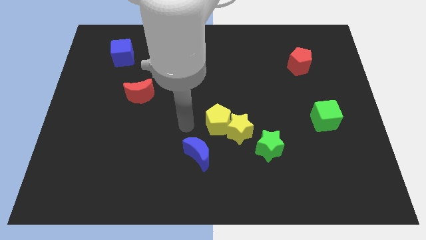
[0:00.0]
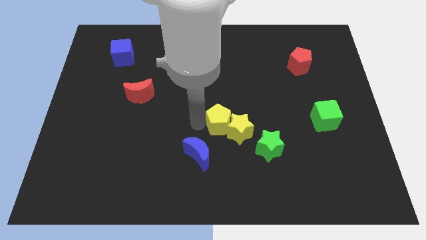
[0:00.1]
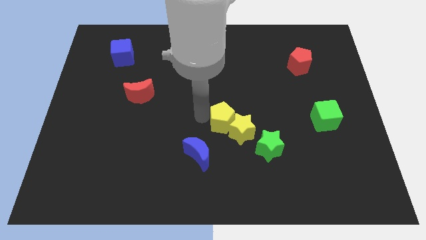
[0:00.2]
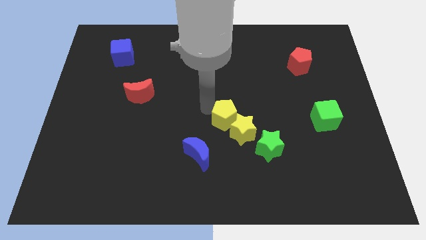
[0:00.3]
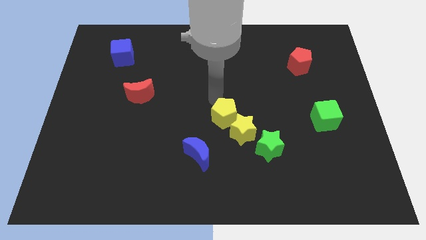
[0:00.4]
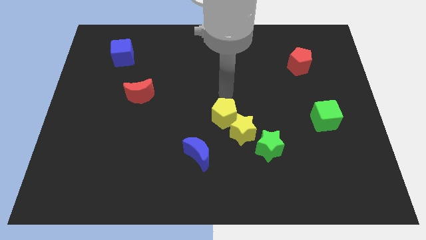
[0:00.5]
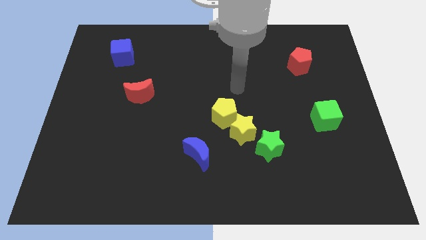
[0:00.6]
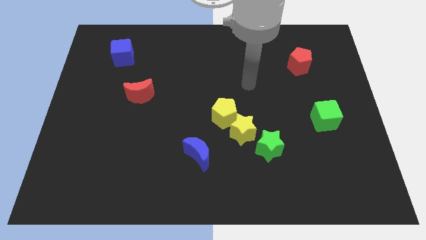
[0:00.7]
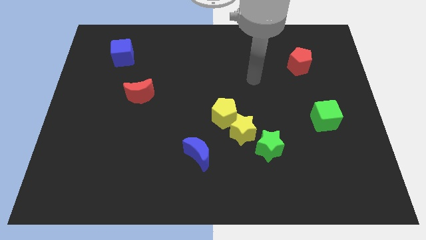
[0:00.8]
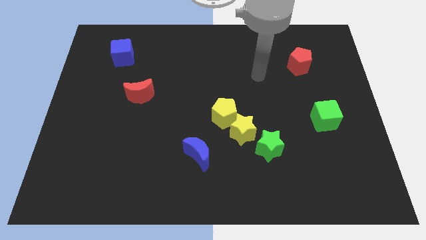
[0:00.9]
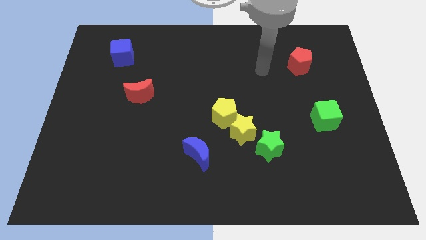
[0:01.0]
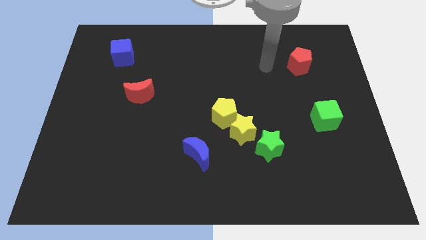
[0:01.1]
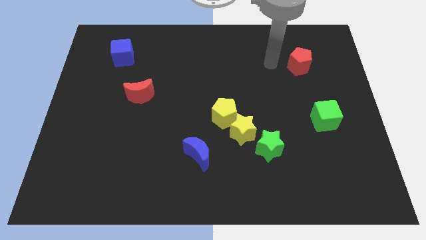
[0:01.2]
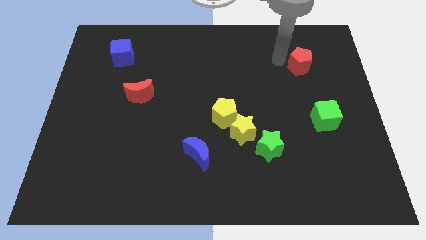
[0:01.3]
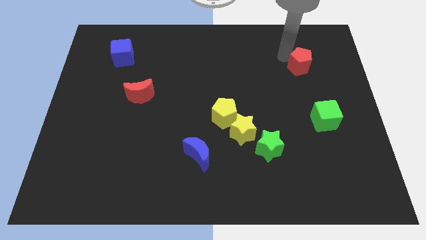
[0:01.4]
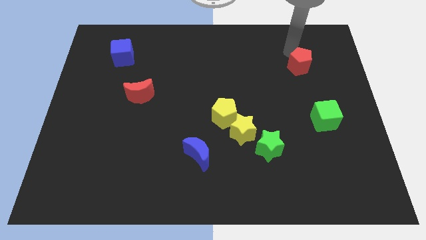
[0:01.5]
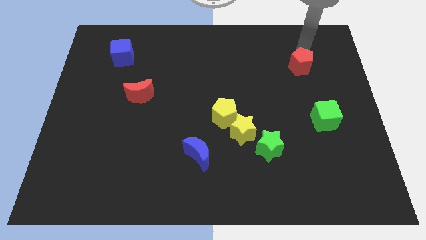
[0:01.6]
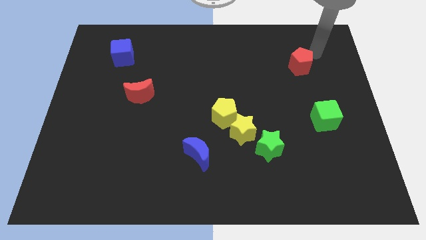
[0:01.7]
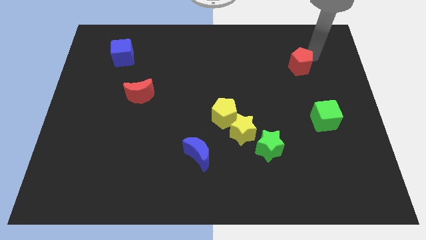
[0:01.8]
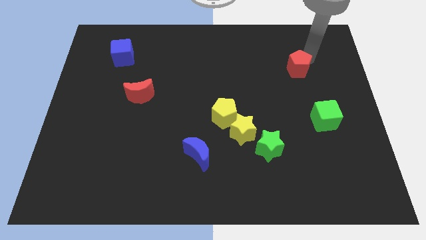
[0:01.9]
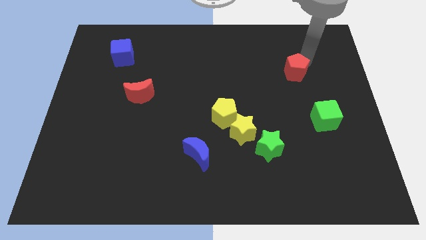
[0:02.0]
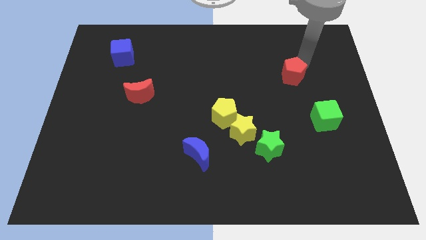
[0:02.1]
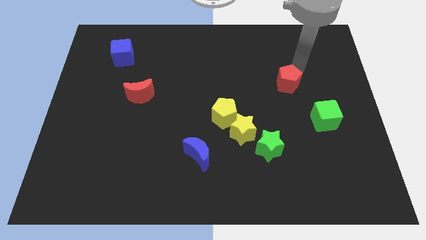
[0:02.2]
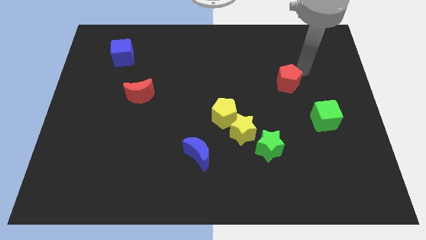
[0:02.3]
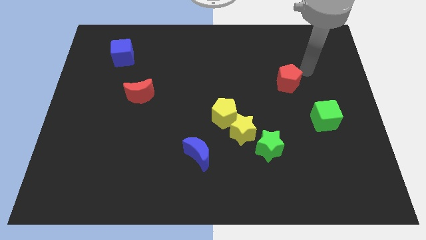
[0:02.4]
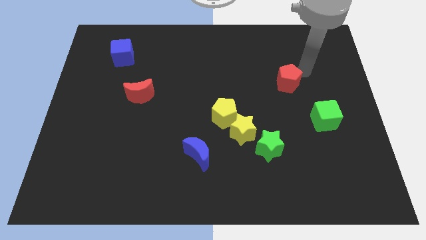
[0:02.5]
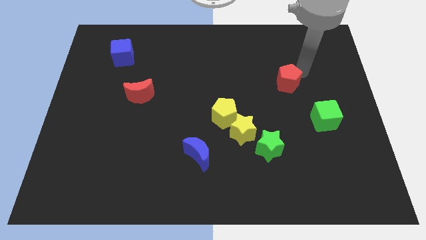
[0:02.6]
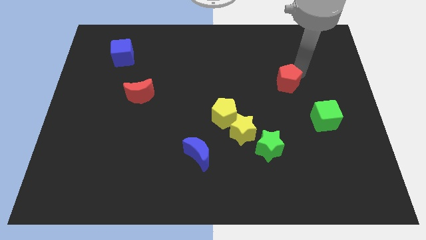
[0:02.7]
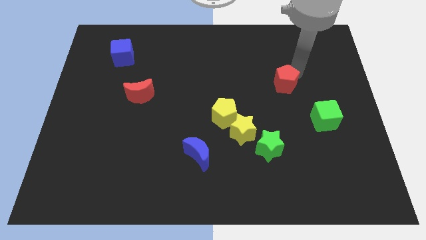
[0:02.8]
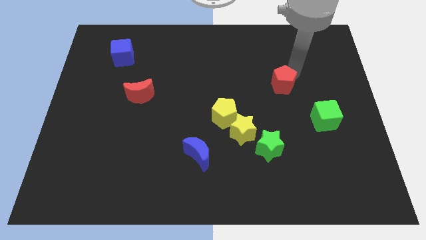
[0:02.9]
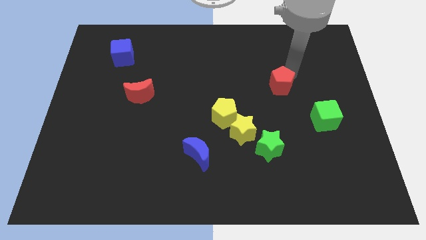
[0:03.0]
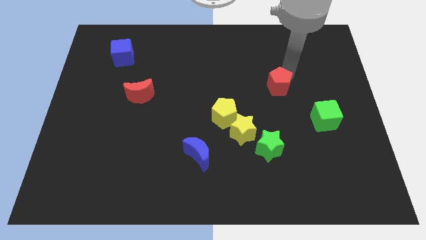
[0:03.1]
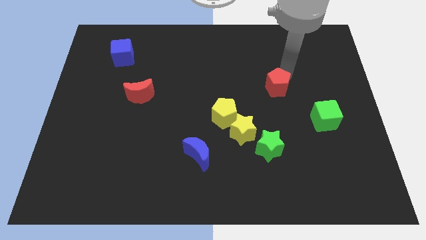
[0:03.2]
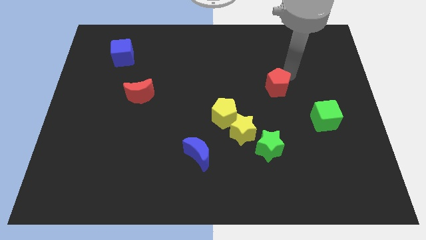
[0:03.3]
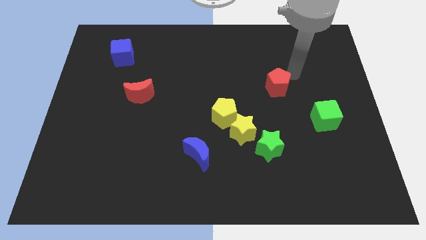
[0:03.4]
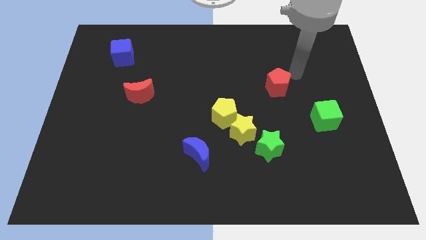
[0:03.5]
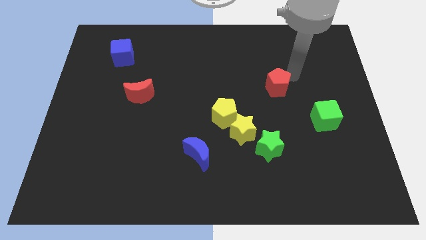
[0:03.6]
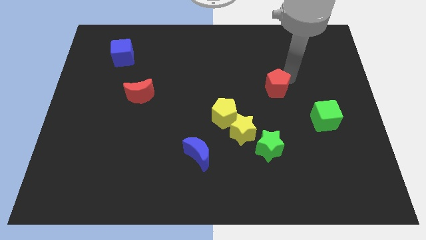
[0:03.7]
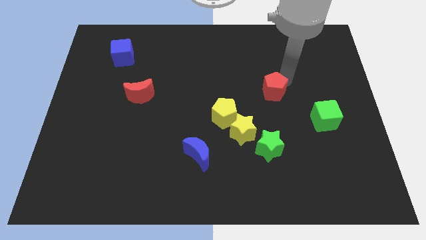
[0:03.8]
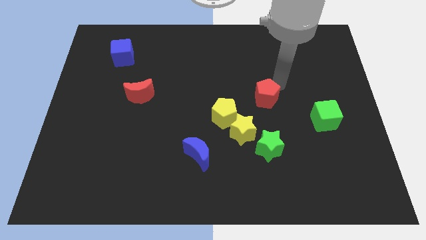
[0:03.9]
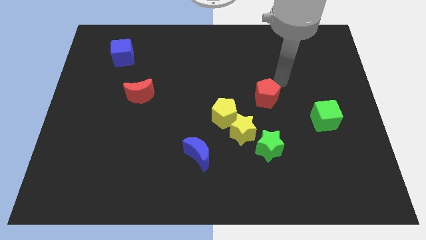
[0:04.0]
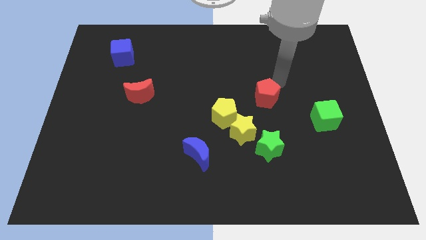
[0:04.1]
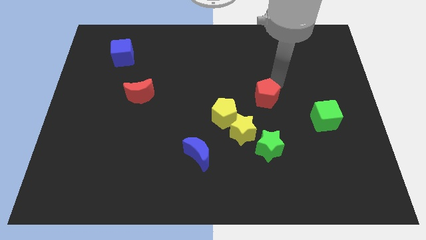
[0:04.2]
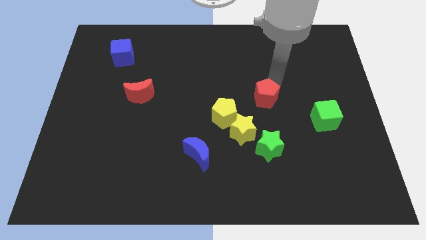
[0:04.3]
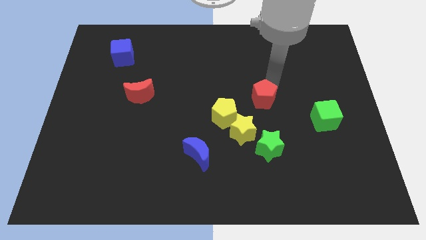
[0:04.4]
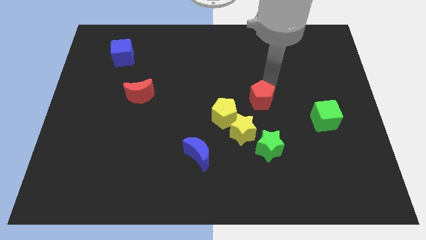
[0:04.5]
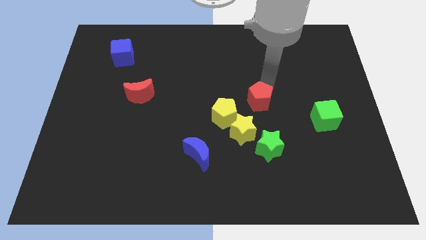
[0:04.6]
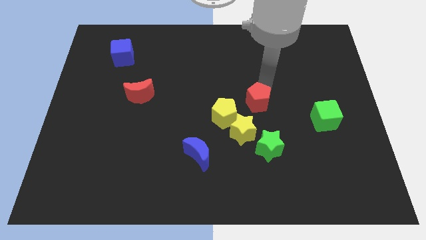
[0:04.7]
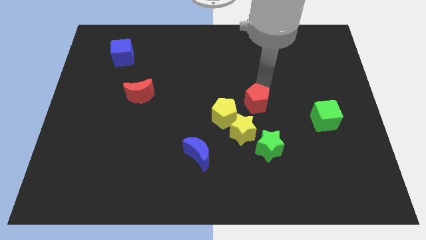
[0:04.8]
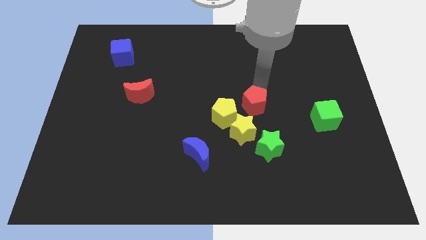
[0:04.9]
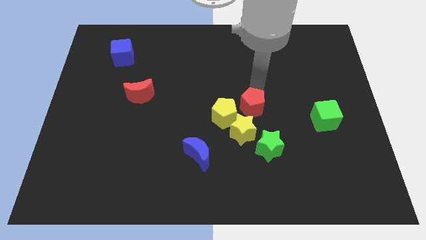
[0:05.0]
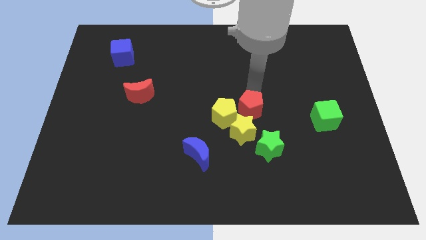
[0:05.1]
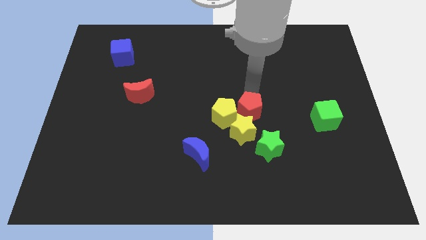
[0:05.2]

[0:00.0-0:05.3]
put the red pentagon towards the yellow star

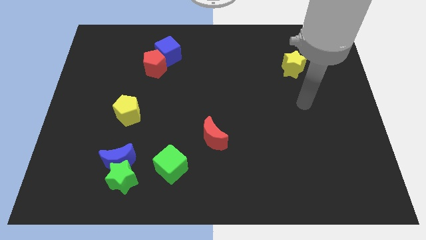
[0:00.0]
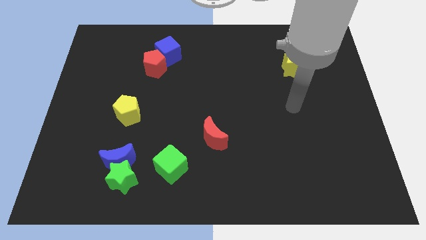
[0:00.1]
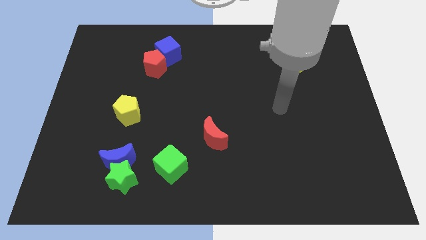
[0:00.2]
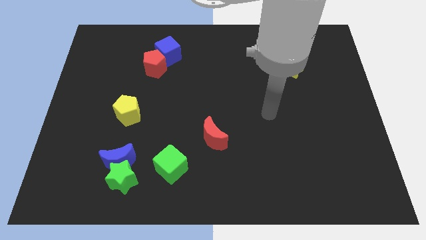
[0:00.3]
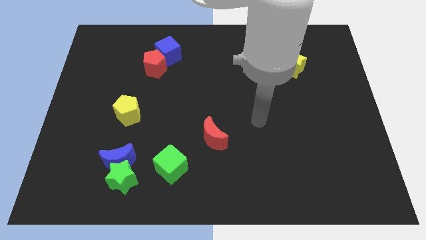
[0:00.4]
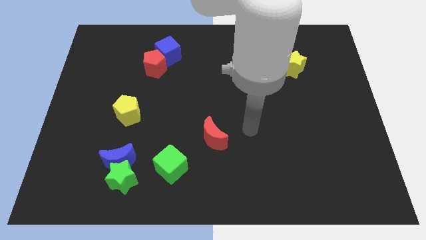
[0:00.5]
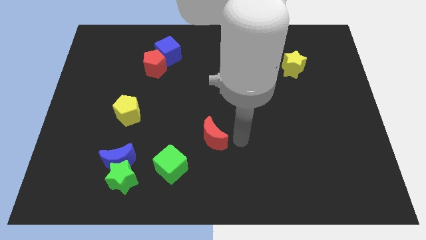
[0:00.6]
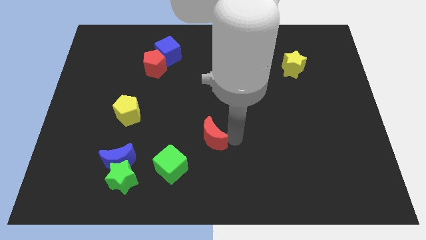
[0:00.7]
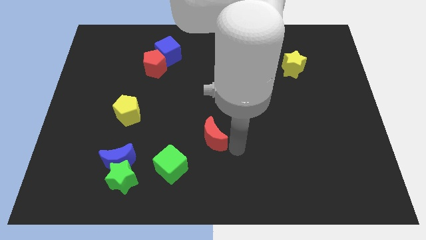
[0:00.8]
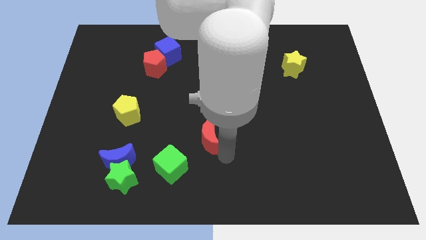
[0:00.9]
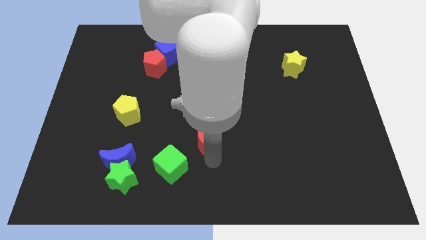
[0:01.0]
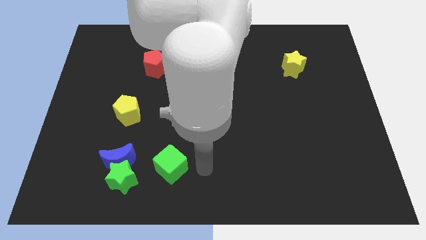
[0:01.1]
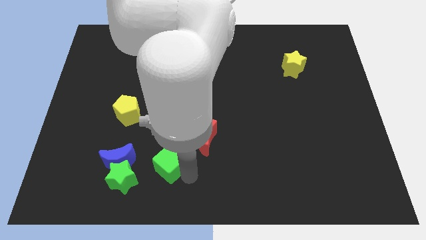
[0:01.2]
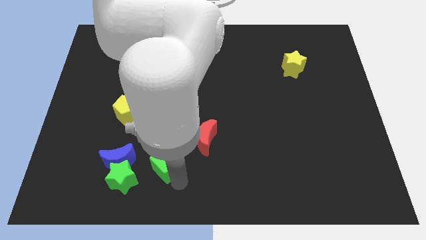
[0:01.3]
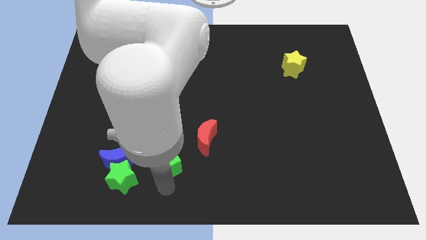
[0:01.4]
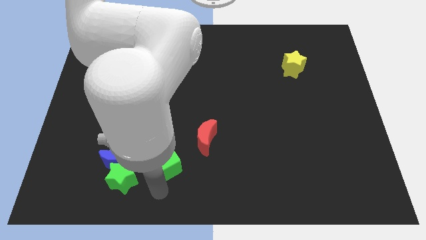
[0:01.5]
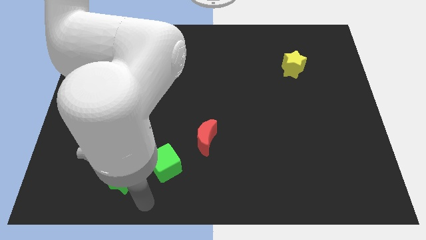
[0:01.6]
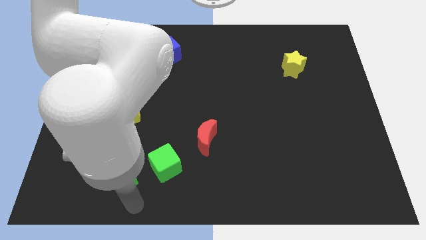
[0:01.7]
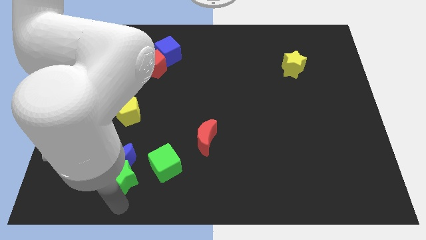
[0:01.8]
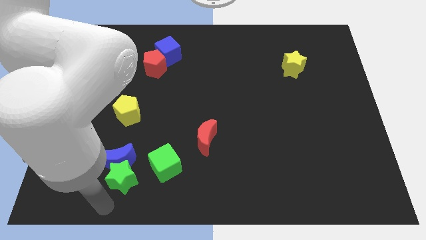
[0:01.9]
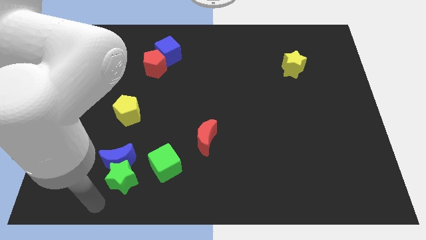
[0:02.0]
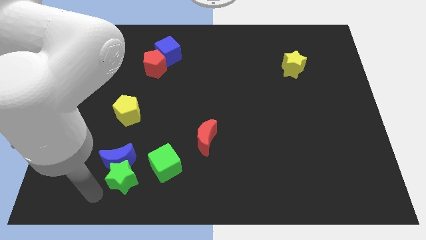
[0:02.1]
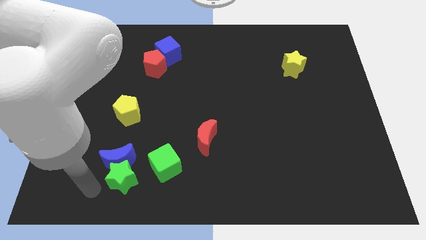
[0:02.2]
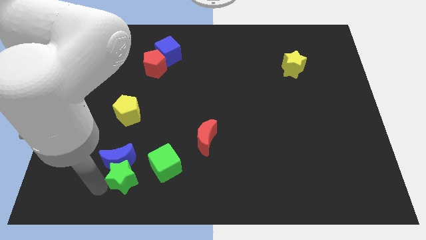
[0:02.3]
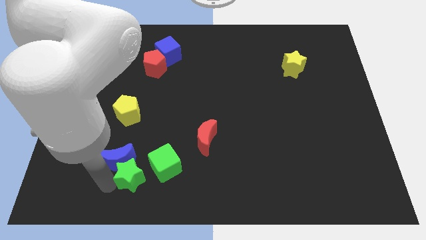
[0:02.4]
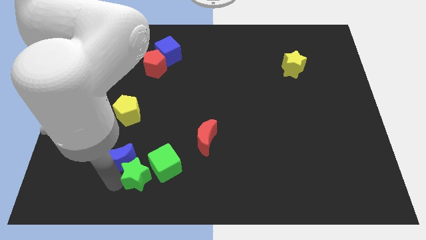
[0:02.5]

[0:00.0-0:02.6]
put the green star to the green cube
